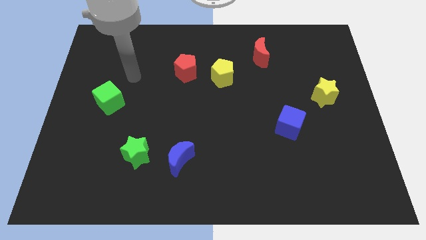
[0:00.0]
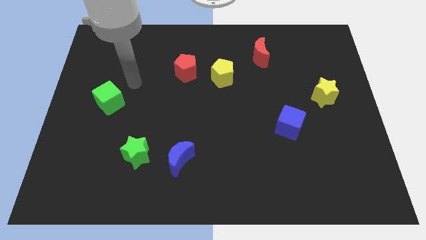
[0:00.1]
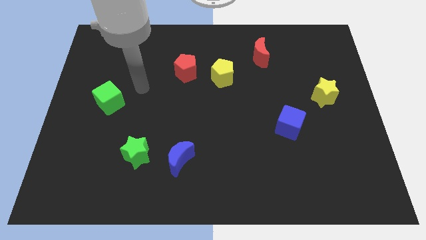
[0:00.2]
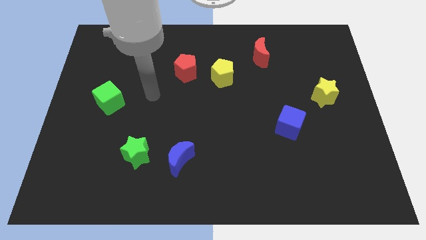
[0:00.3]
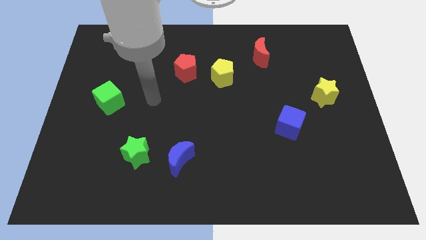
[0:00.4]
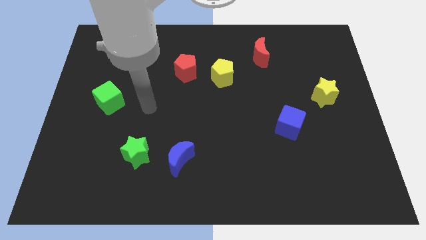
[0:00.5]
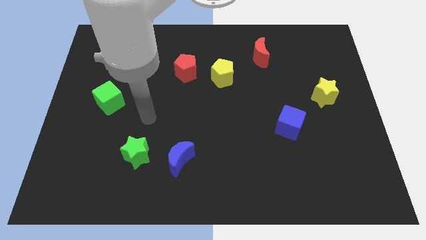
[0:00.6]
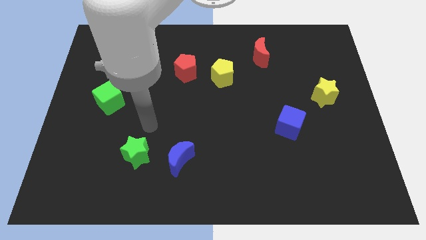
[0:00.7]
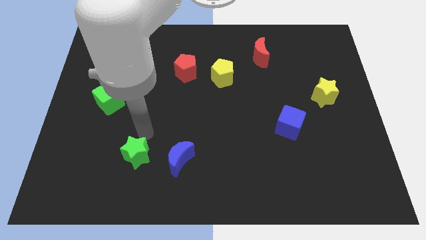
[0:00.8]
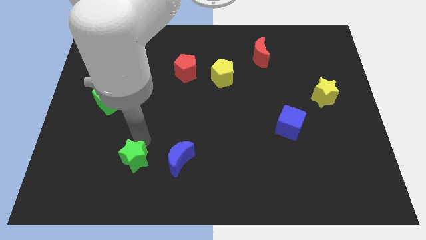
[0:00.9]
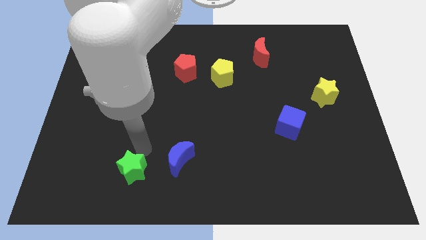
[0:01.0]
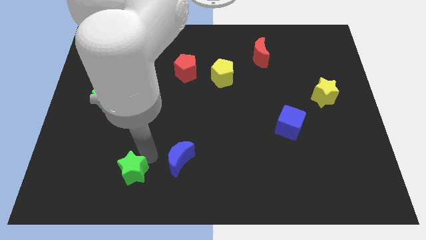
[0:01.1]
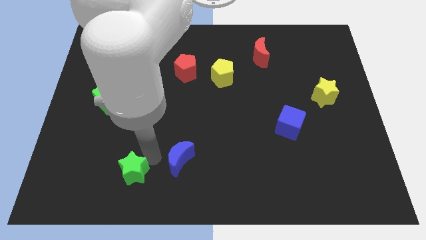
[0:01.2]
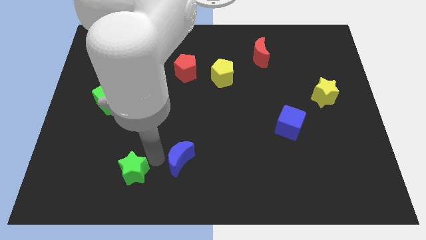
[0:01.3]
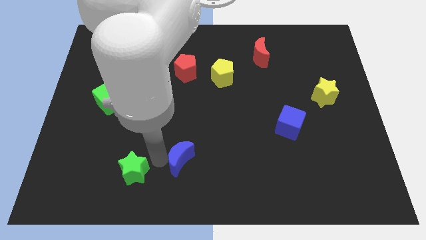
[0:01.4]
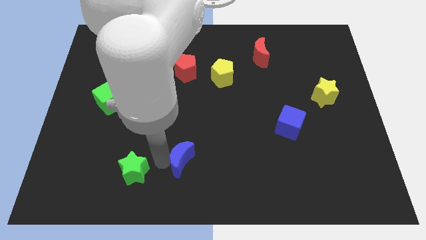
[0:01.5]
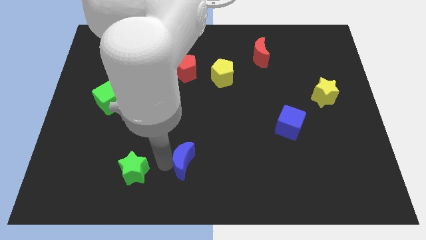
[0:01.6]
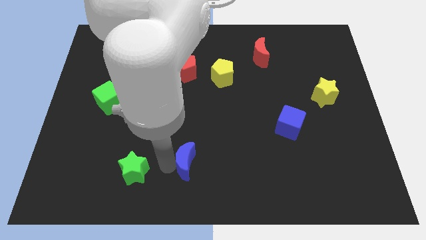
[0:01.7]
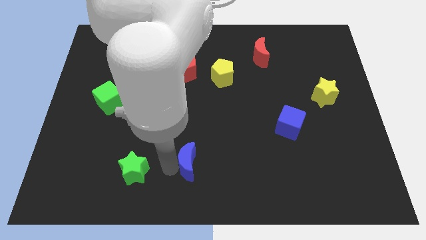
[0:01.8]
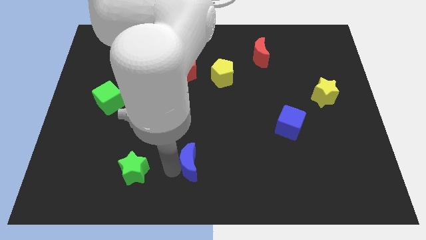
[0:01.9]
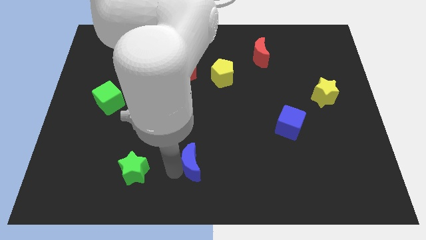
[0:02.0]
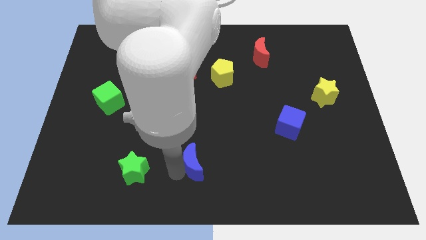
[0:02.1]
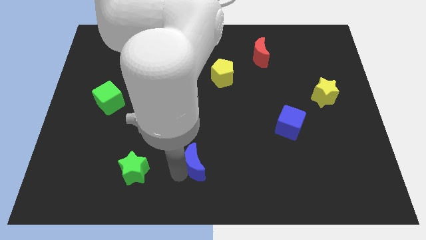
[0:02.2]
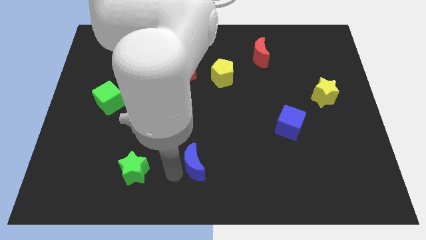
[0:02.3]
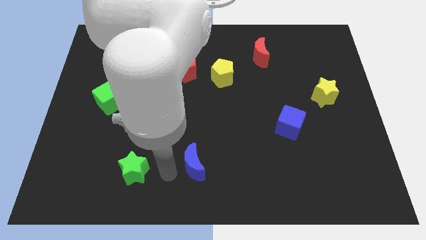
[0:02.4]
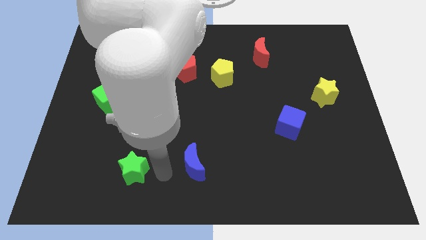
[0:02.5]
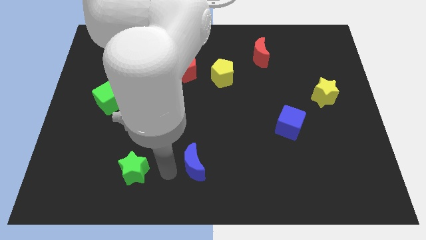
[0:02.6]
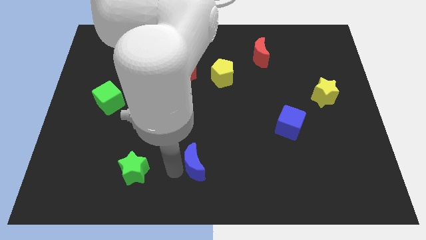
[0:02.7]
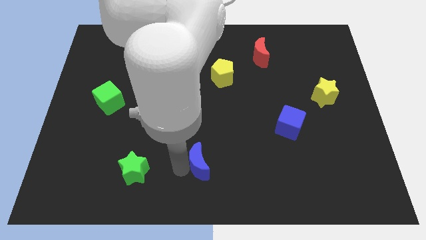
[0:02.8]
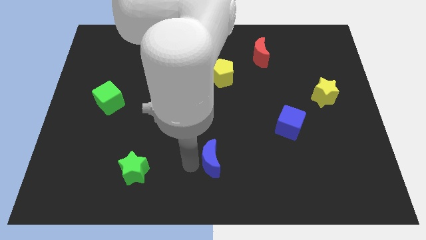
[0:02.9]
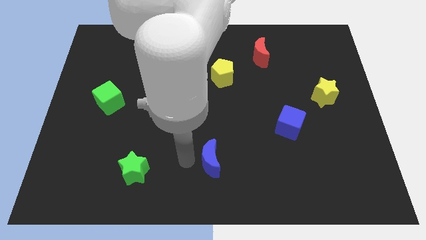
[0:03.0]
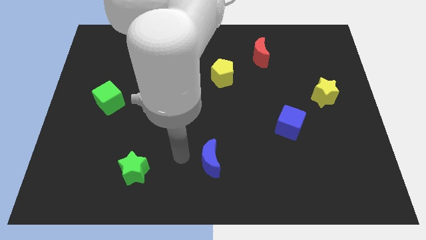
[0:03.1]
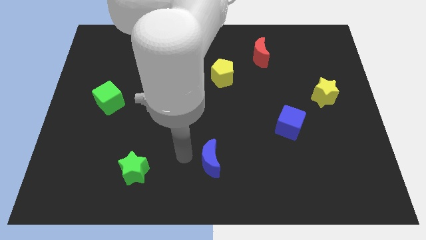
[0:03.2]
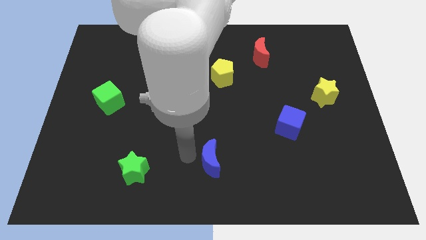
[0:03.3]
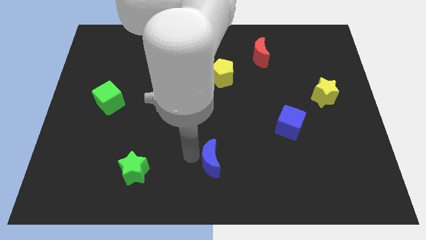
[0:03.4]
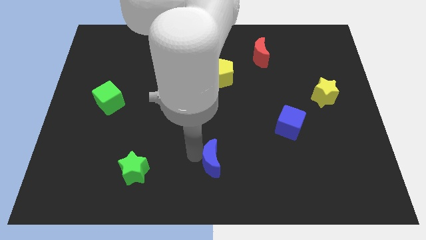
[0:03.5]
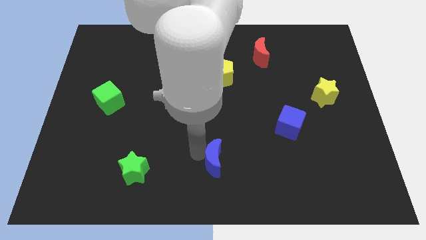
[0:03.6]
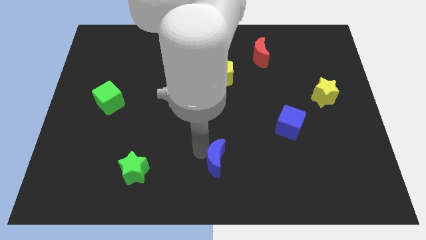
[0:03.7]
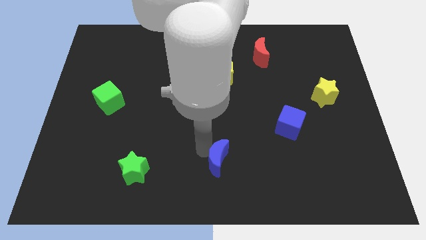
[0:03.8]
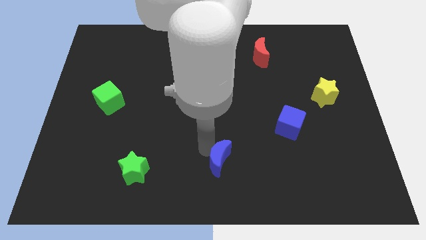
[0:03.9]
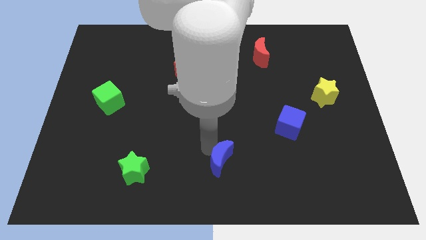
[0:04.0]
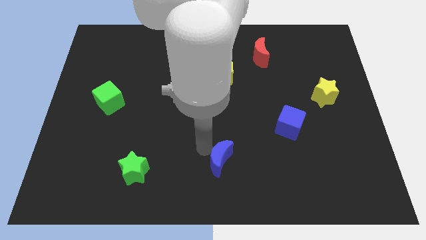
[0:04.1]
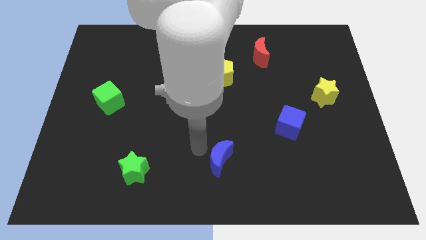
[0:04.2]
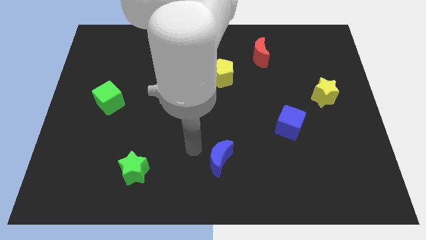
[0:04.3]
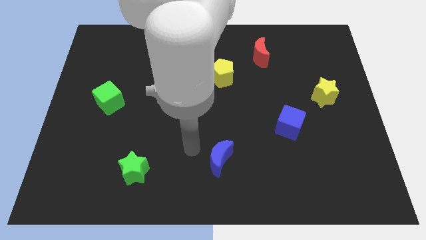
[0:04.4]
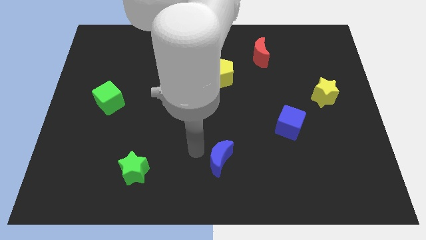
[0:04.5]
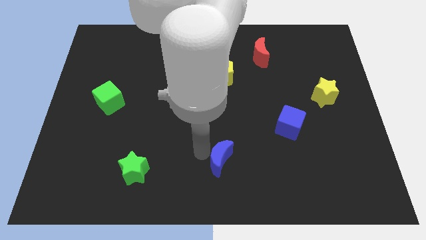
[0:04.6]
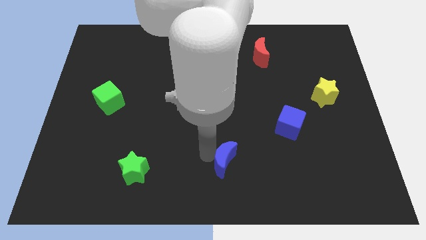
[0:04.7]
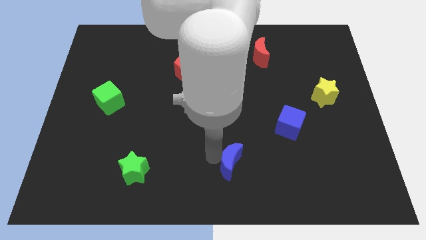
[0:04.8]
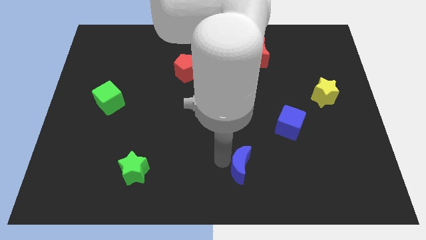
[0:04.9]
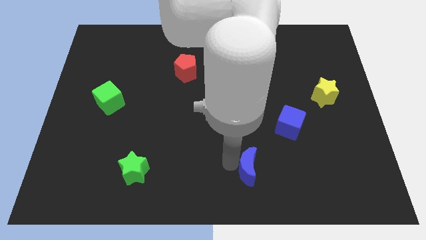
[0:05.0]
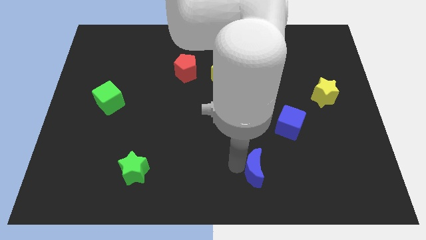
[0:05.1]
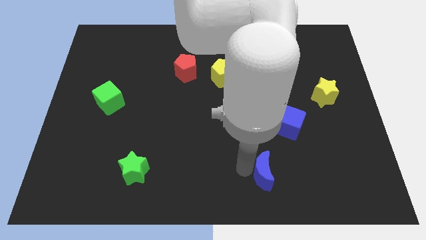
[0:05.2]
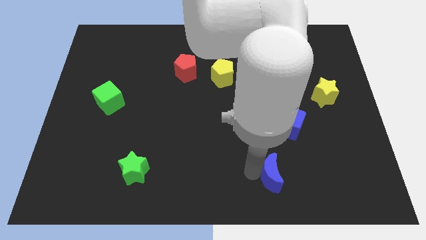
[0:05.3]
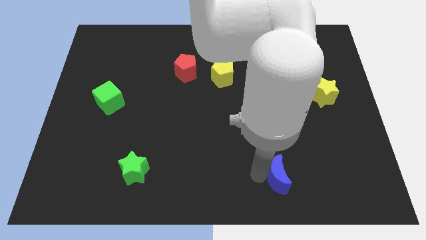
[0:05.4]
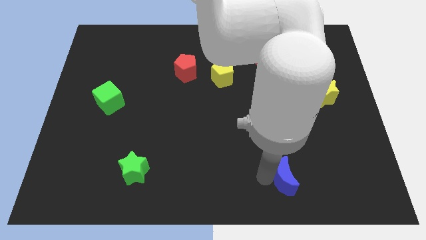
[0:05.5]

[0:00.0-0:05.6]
push the blue moon to the right

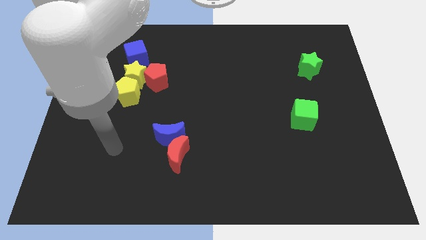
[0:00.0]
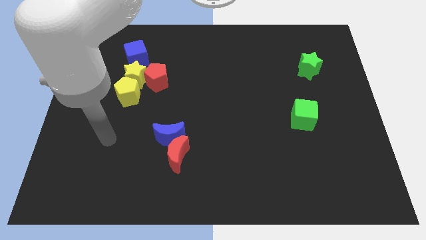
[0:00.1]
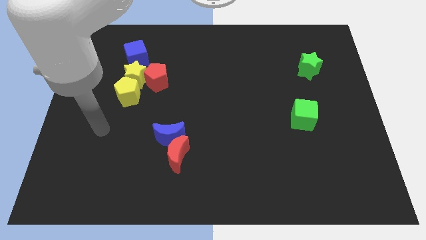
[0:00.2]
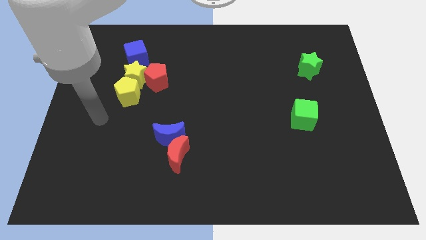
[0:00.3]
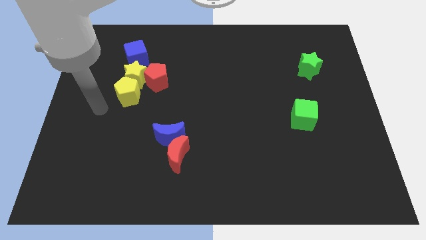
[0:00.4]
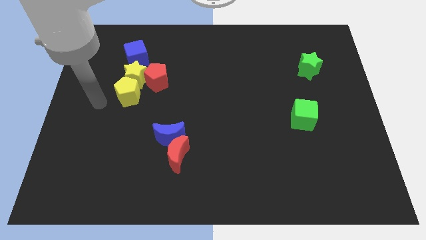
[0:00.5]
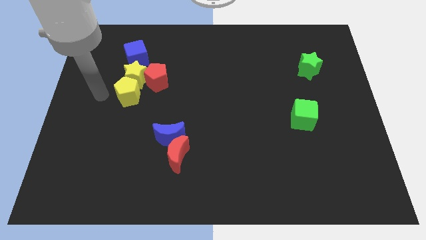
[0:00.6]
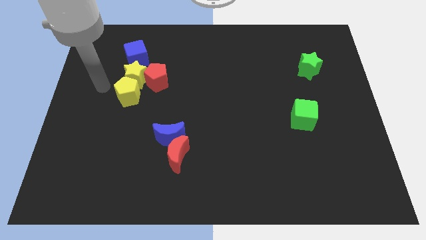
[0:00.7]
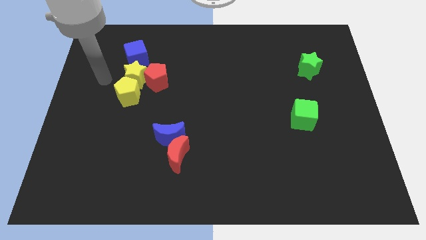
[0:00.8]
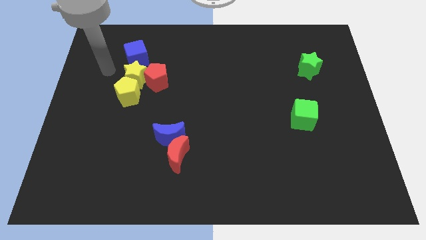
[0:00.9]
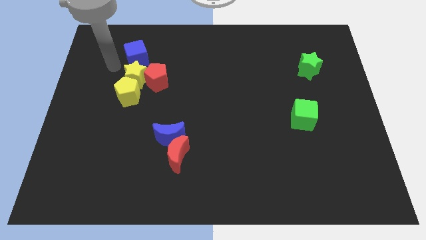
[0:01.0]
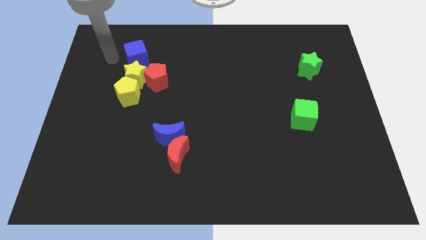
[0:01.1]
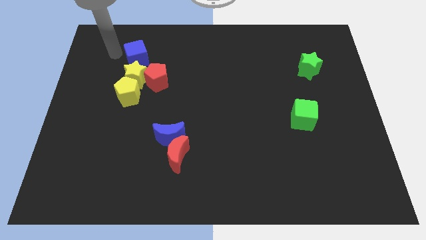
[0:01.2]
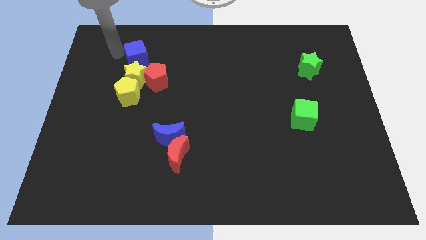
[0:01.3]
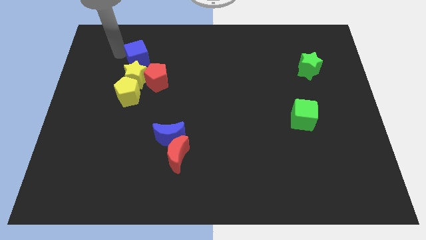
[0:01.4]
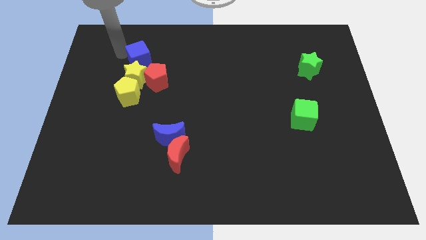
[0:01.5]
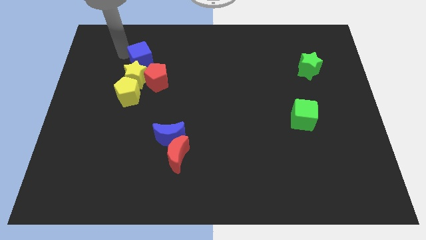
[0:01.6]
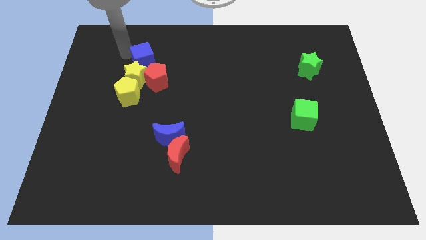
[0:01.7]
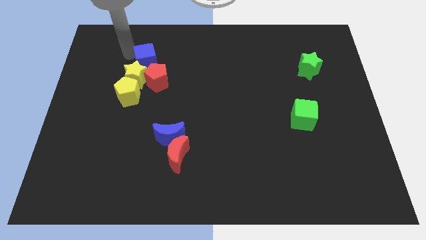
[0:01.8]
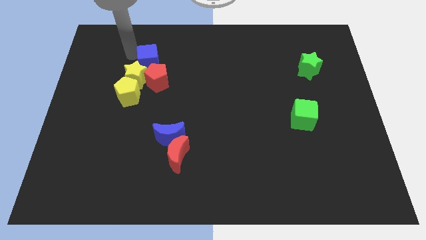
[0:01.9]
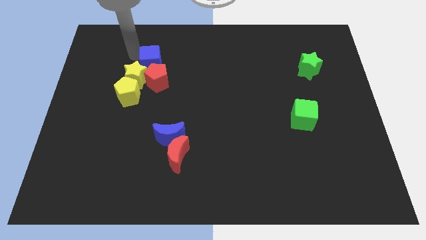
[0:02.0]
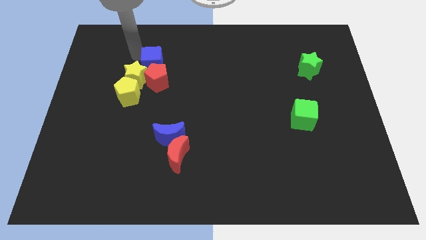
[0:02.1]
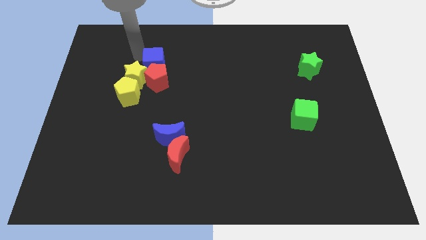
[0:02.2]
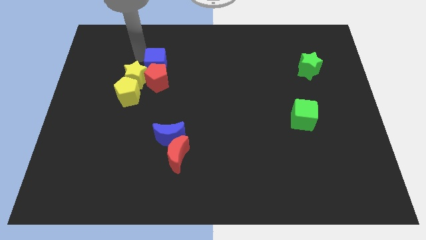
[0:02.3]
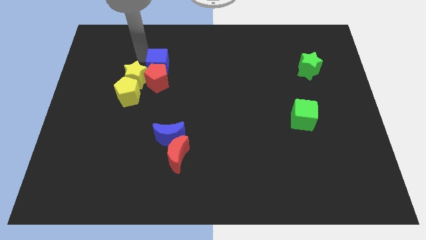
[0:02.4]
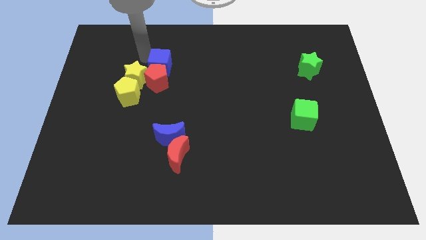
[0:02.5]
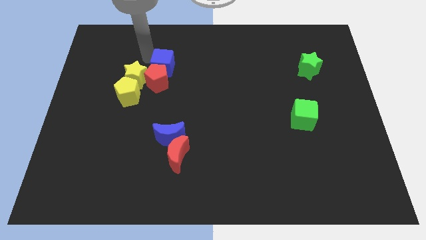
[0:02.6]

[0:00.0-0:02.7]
push the blue cube slightly down and right diagonally
